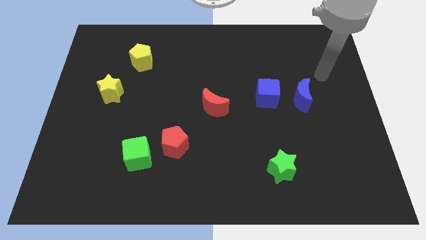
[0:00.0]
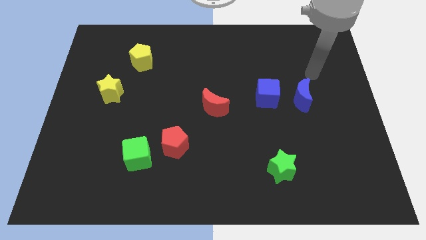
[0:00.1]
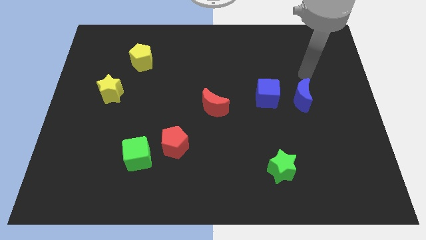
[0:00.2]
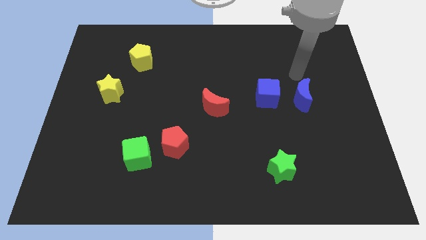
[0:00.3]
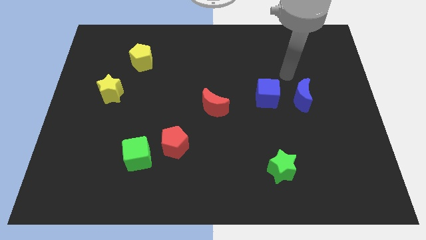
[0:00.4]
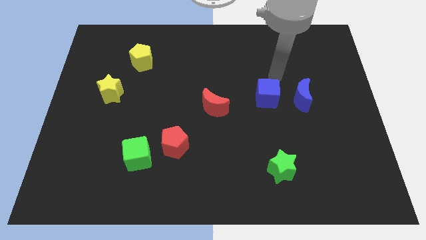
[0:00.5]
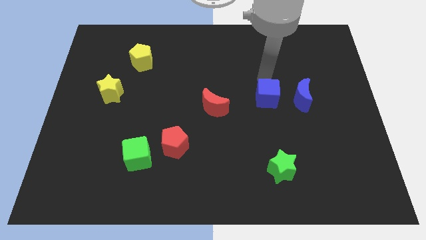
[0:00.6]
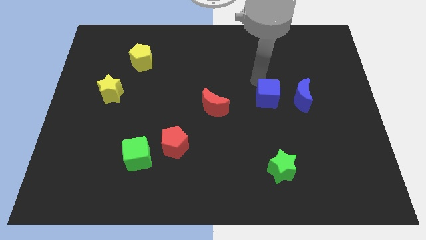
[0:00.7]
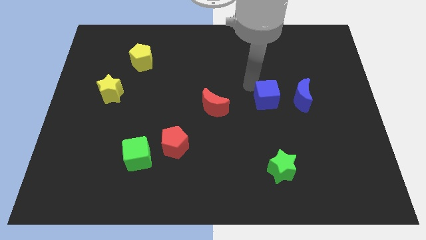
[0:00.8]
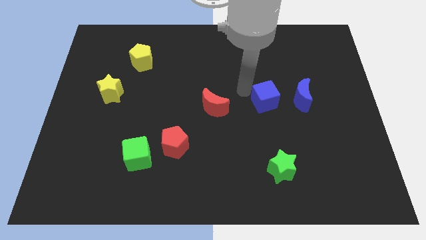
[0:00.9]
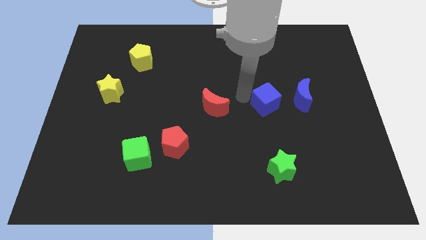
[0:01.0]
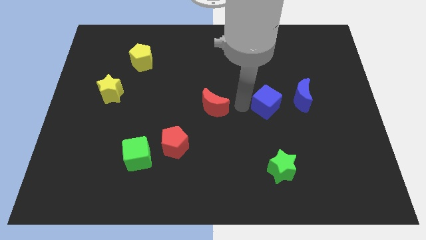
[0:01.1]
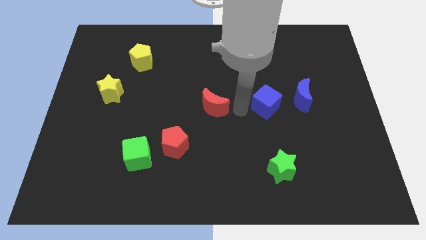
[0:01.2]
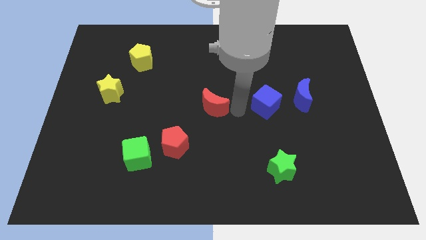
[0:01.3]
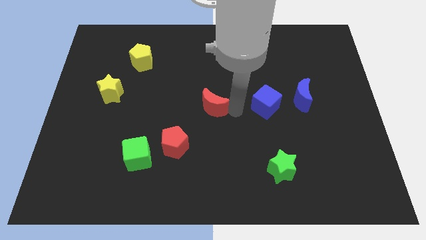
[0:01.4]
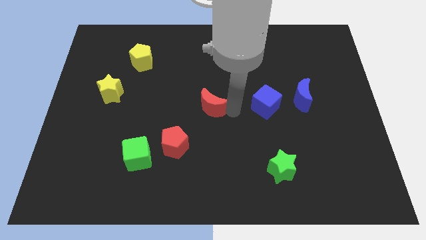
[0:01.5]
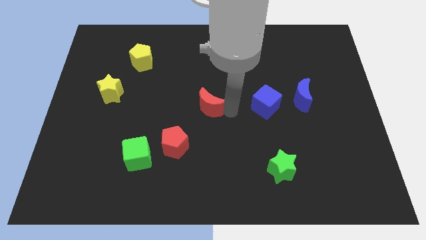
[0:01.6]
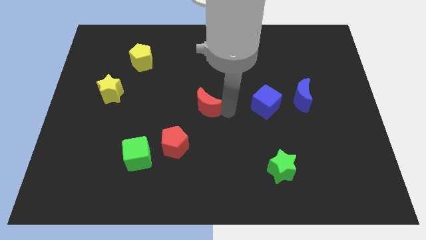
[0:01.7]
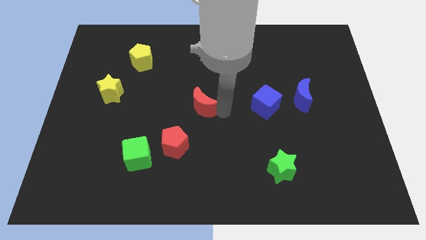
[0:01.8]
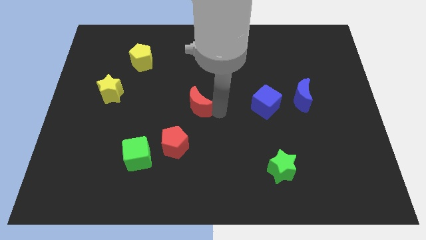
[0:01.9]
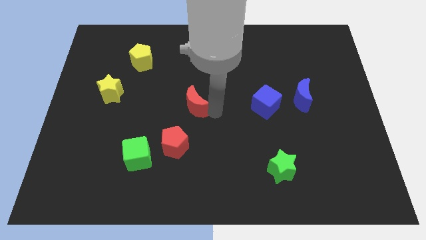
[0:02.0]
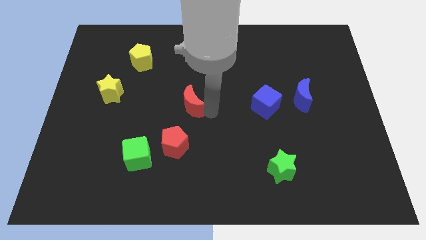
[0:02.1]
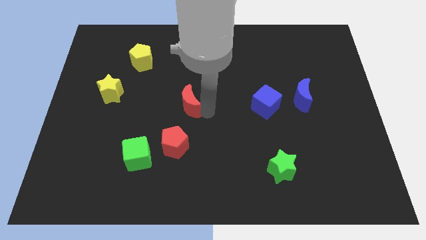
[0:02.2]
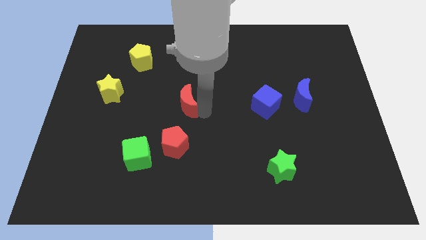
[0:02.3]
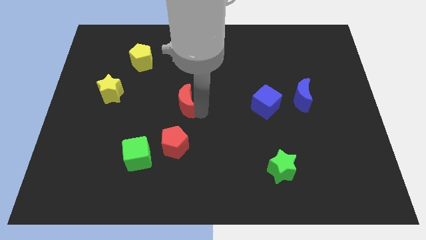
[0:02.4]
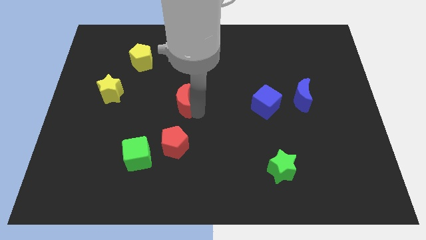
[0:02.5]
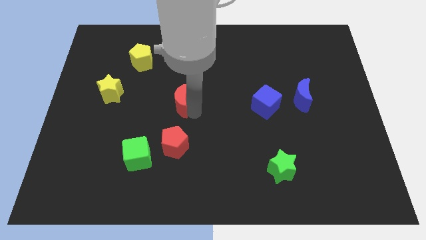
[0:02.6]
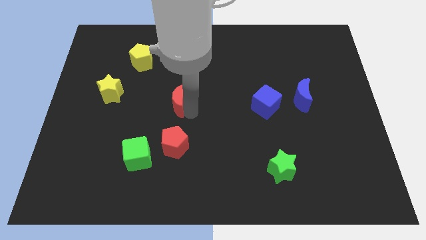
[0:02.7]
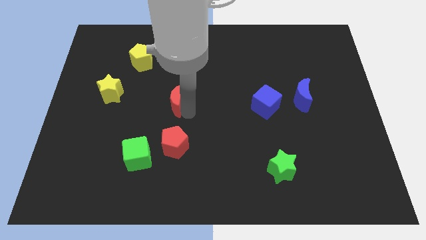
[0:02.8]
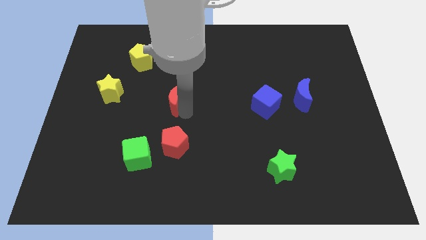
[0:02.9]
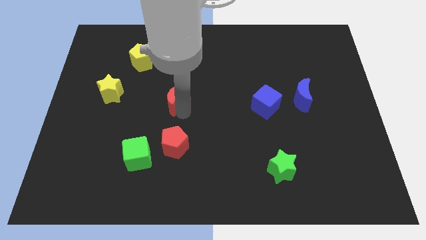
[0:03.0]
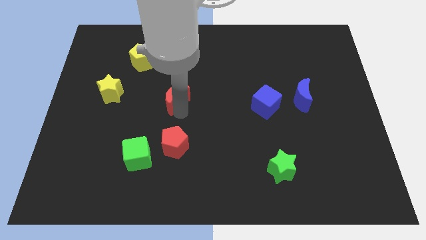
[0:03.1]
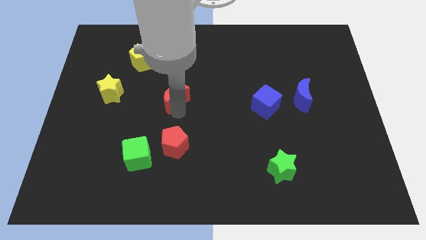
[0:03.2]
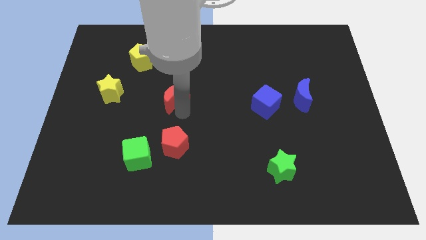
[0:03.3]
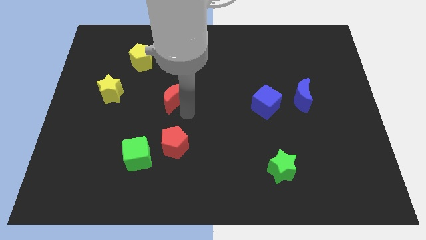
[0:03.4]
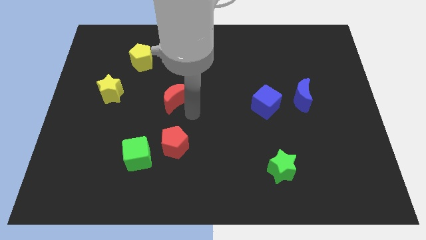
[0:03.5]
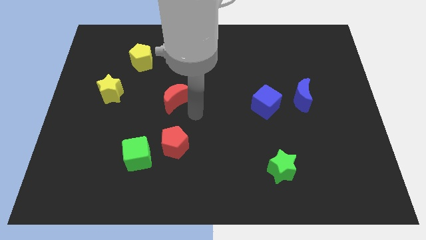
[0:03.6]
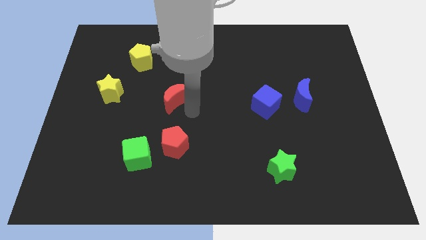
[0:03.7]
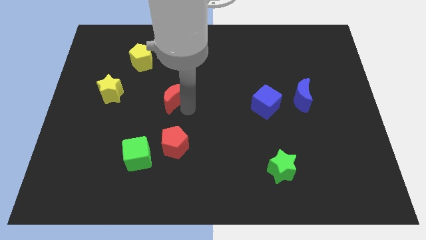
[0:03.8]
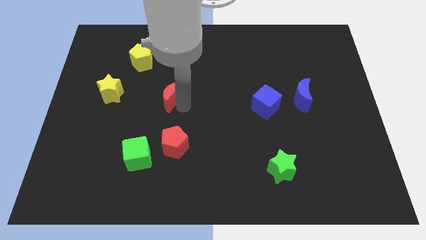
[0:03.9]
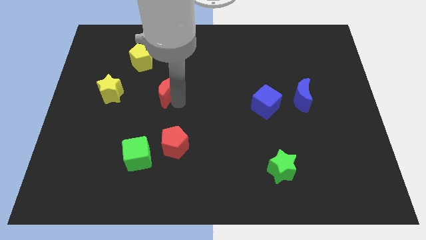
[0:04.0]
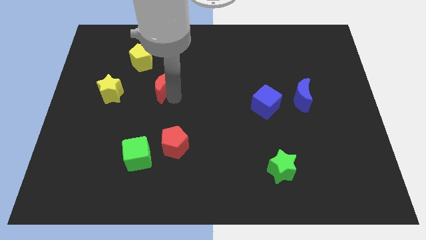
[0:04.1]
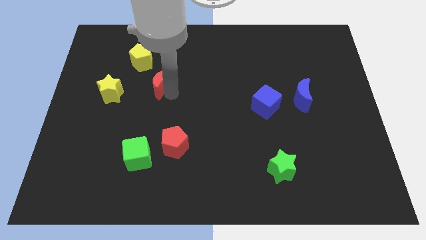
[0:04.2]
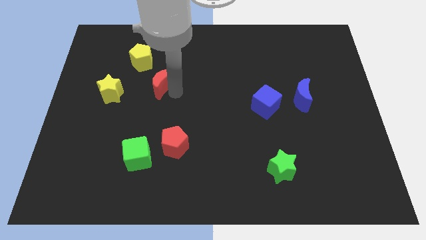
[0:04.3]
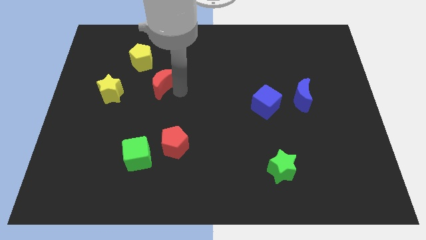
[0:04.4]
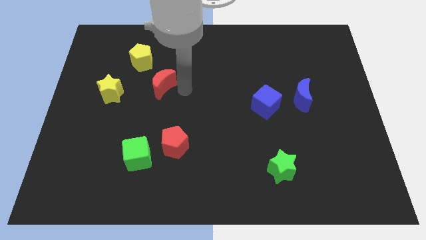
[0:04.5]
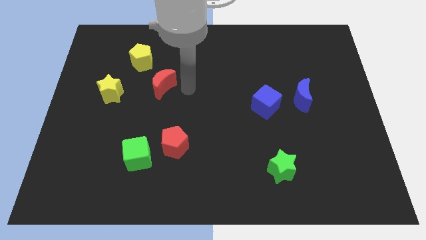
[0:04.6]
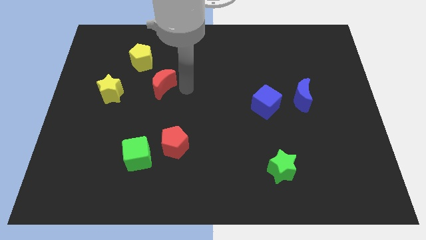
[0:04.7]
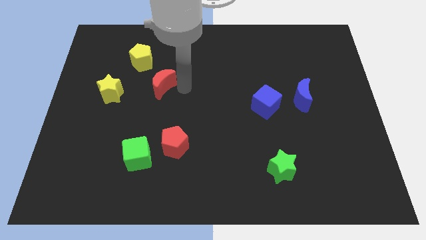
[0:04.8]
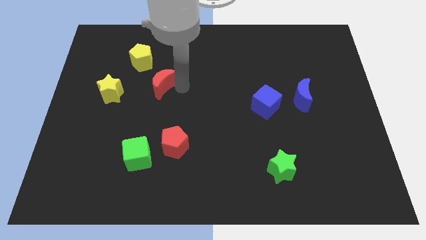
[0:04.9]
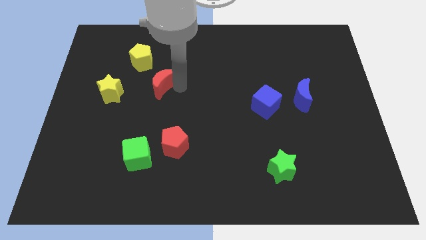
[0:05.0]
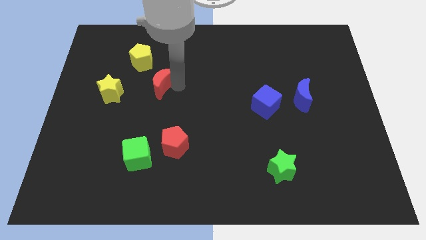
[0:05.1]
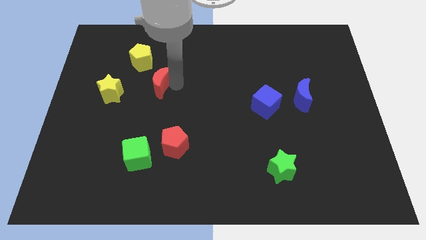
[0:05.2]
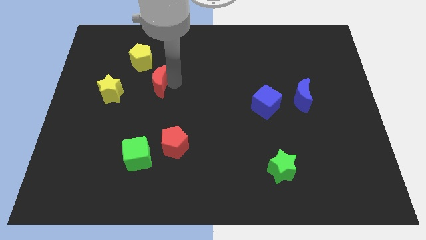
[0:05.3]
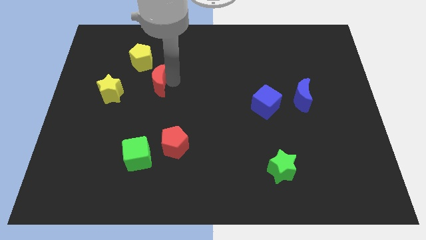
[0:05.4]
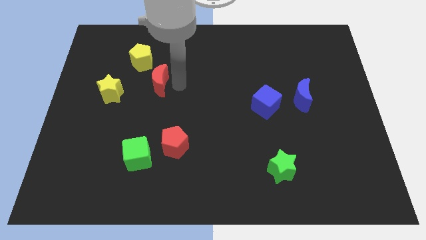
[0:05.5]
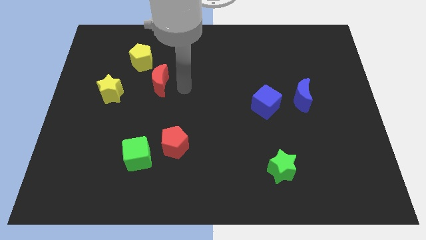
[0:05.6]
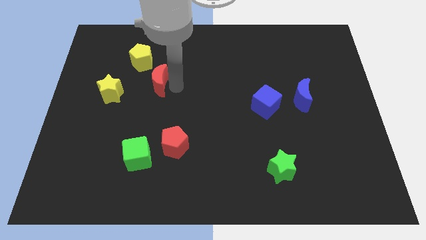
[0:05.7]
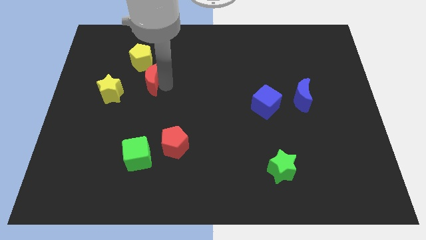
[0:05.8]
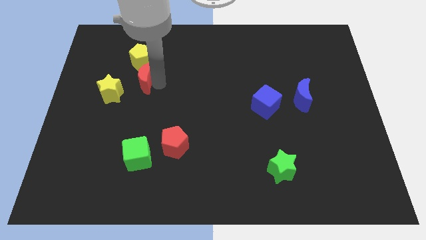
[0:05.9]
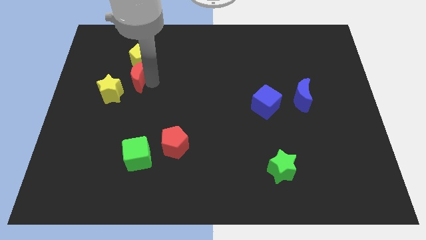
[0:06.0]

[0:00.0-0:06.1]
move the red moon to the bottom left of the yellow pentagon

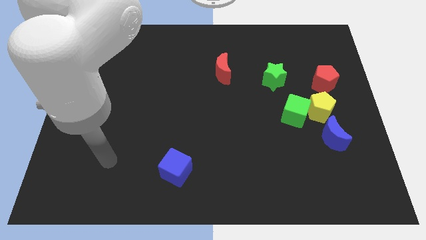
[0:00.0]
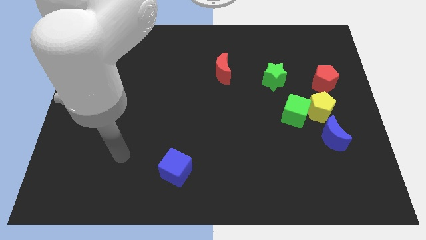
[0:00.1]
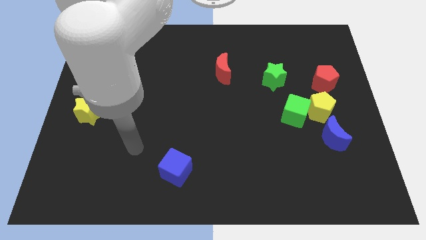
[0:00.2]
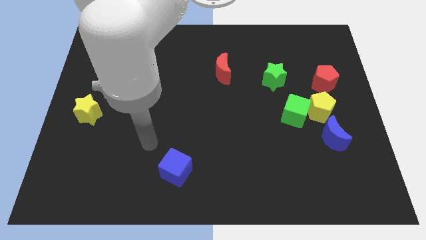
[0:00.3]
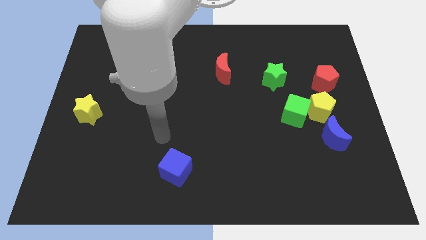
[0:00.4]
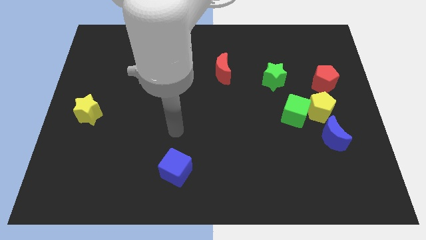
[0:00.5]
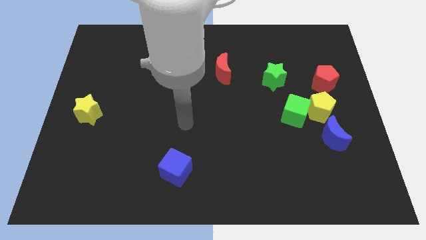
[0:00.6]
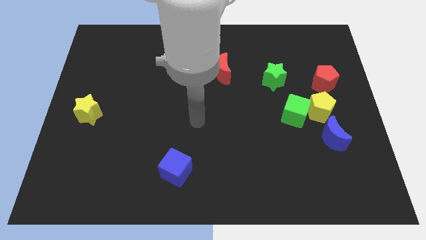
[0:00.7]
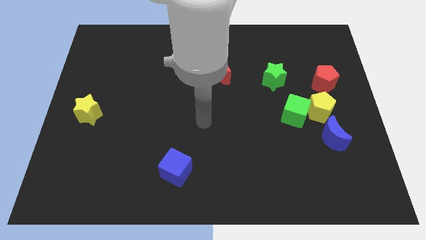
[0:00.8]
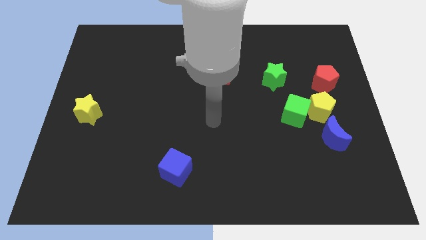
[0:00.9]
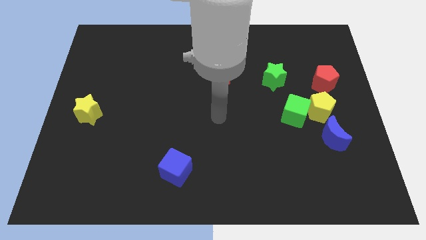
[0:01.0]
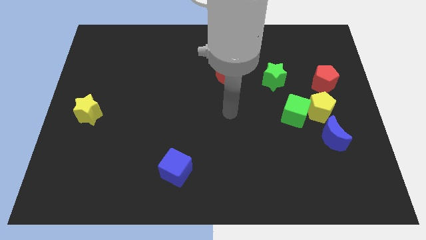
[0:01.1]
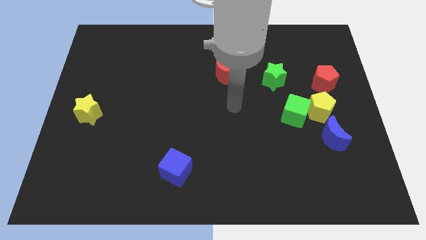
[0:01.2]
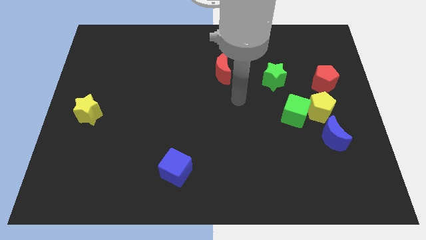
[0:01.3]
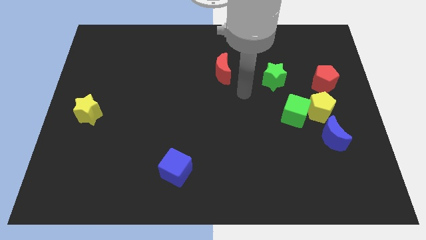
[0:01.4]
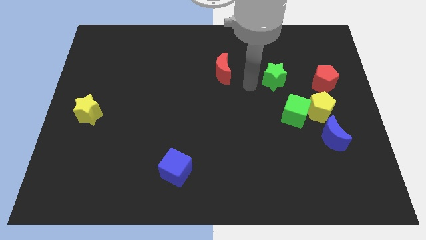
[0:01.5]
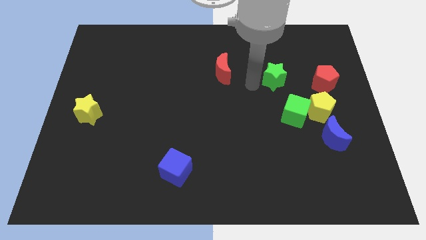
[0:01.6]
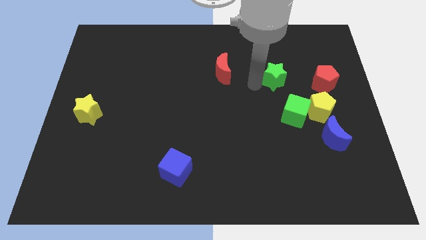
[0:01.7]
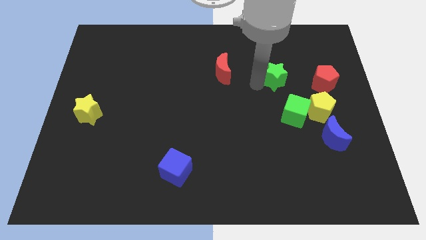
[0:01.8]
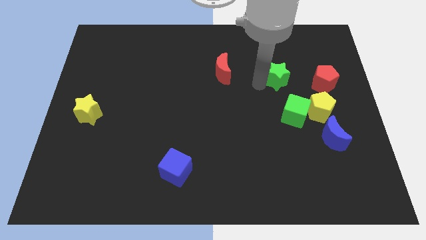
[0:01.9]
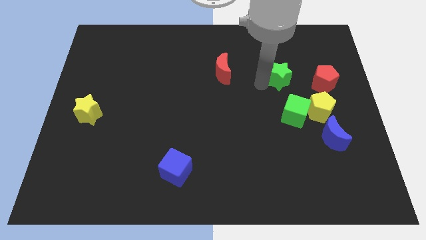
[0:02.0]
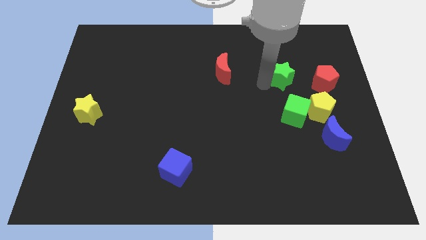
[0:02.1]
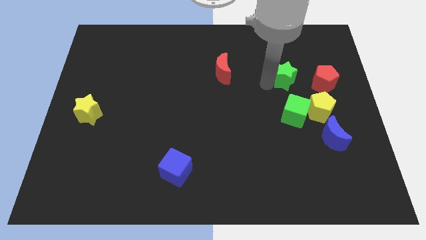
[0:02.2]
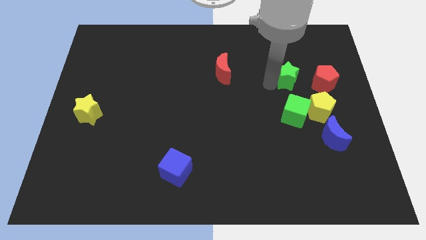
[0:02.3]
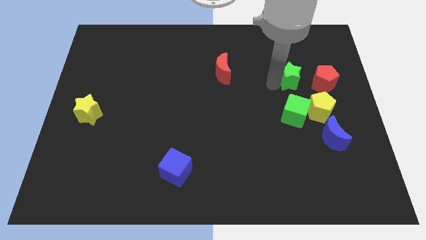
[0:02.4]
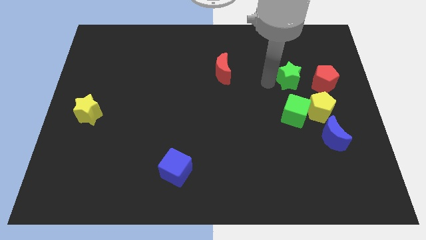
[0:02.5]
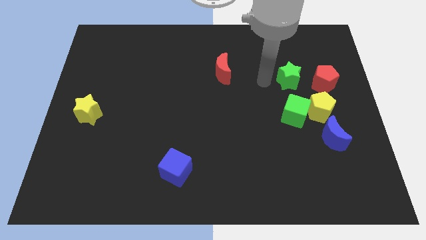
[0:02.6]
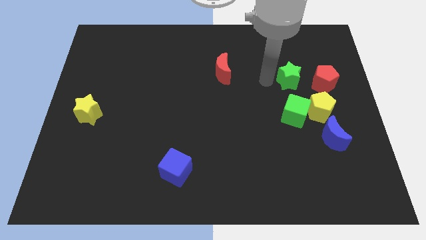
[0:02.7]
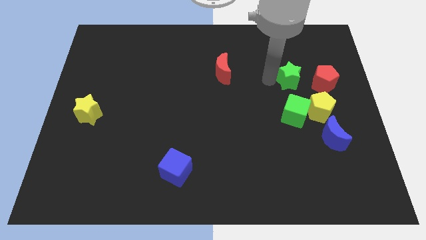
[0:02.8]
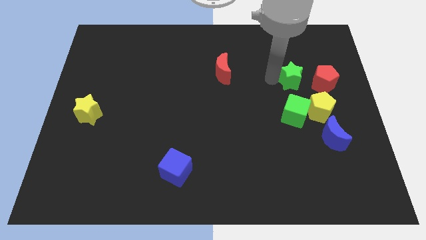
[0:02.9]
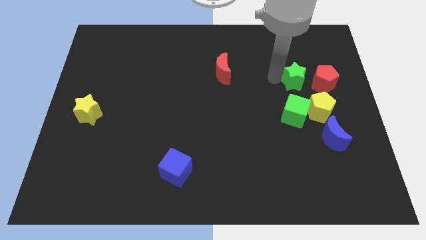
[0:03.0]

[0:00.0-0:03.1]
push the green star above the yellow pentagon
